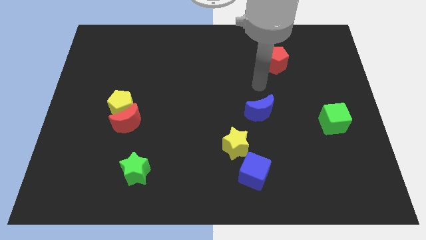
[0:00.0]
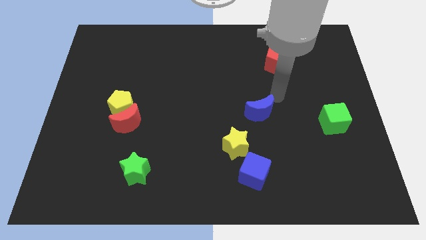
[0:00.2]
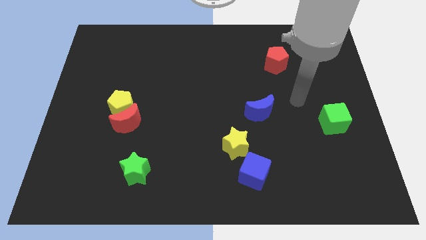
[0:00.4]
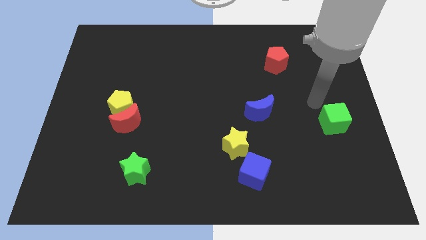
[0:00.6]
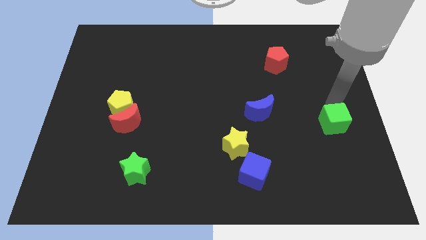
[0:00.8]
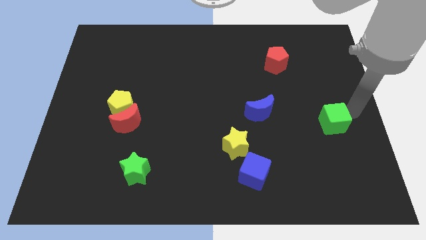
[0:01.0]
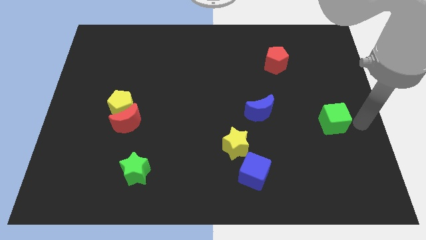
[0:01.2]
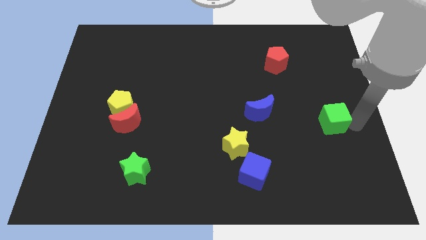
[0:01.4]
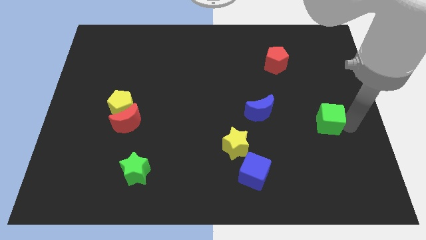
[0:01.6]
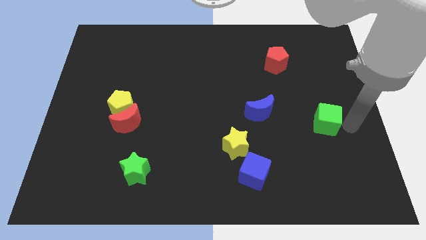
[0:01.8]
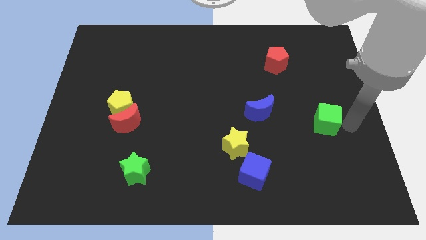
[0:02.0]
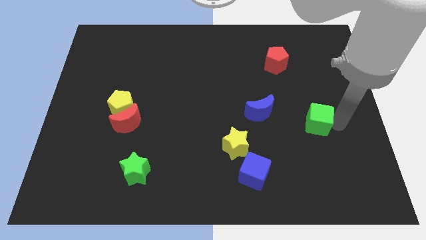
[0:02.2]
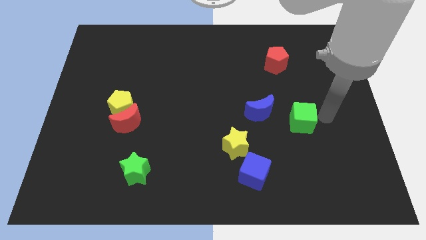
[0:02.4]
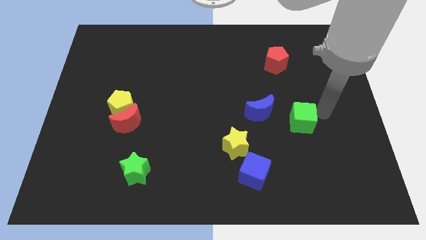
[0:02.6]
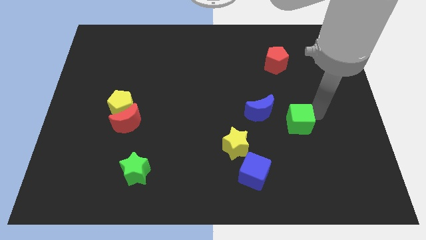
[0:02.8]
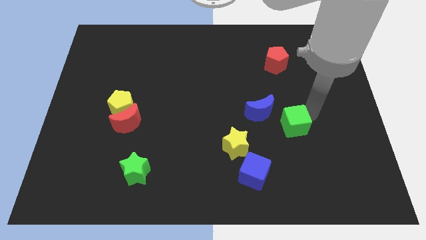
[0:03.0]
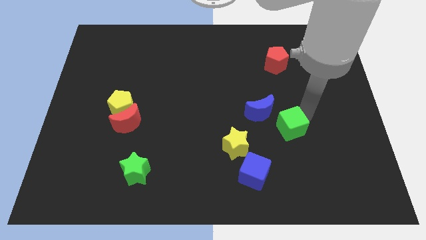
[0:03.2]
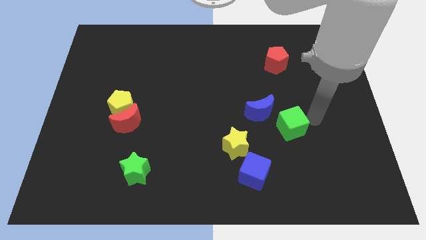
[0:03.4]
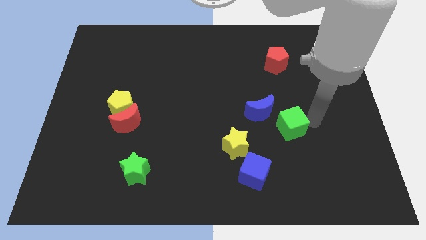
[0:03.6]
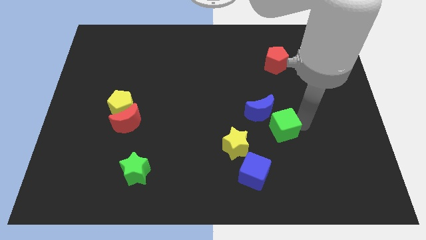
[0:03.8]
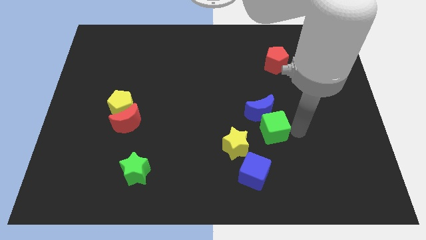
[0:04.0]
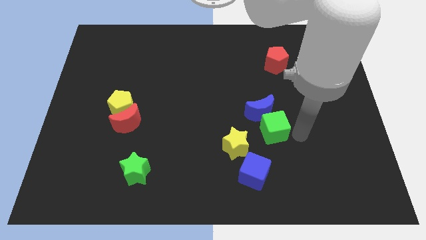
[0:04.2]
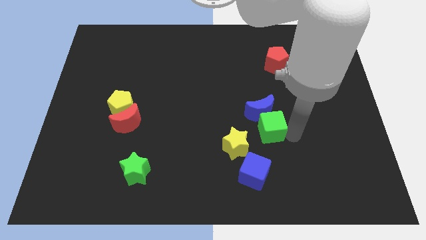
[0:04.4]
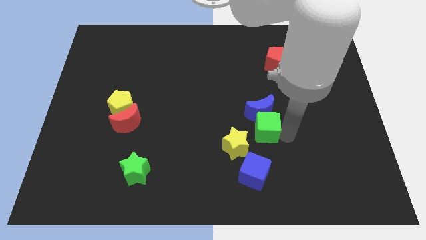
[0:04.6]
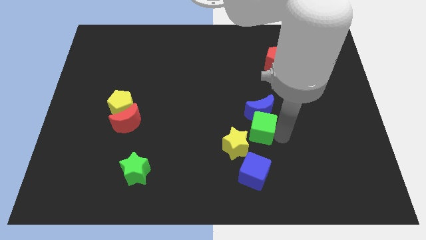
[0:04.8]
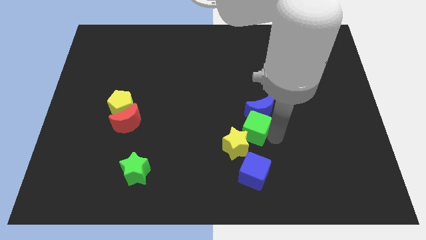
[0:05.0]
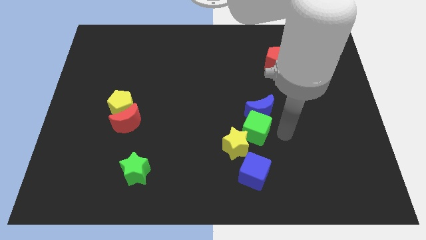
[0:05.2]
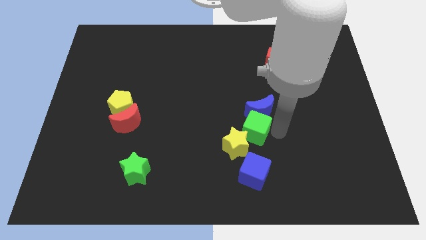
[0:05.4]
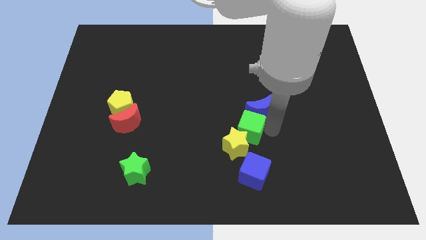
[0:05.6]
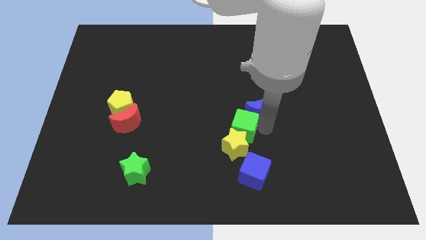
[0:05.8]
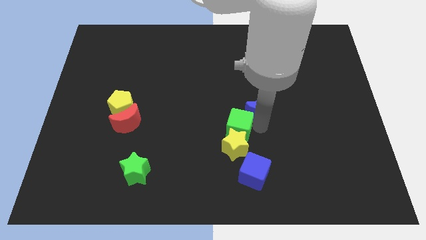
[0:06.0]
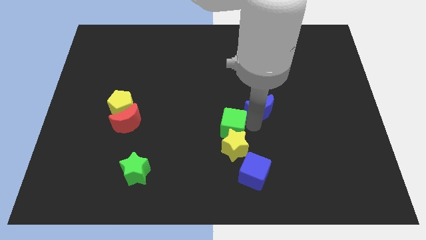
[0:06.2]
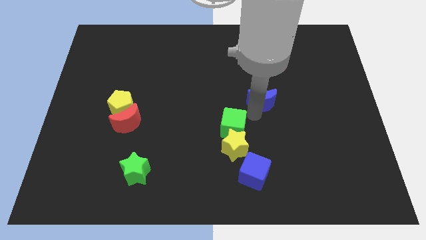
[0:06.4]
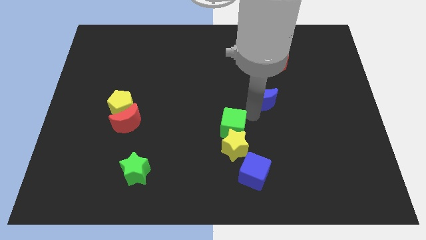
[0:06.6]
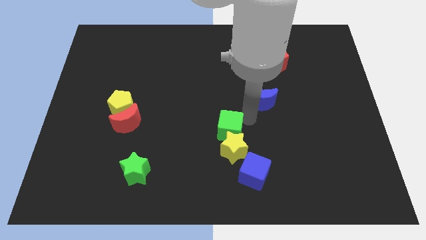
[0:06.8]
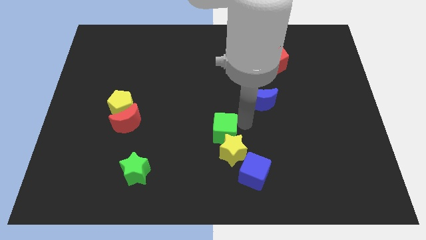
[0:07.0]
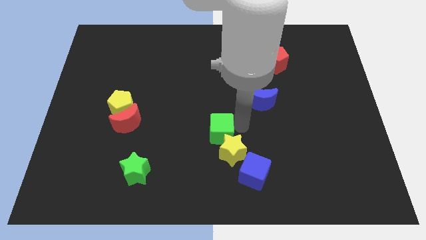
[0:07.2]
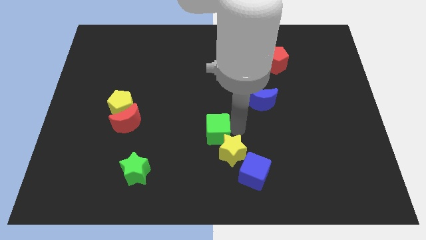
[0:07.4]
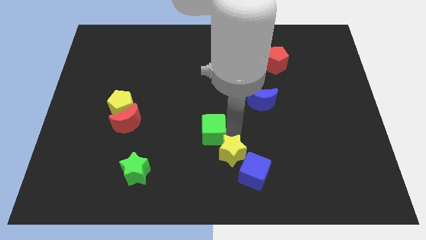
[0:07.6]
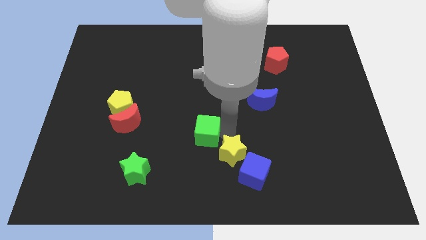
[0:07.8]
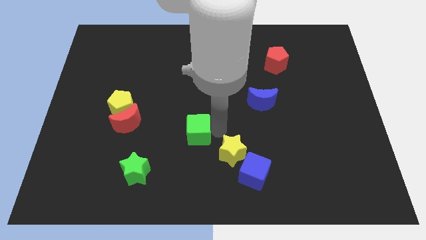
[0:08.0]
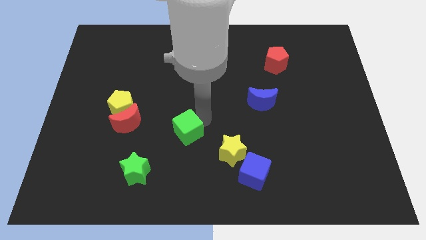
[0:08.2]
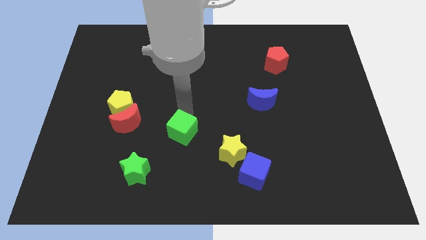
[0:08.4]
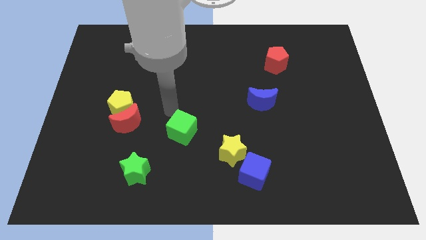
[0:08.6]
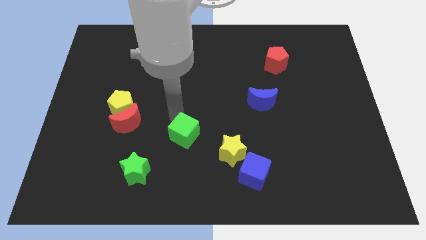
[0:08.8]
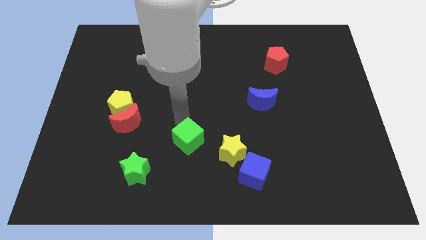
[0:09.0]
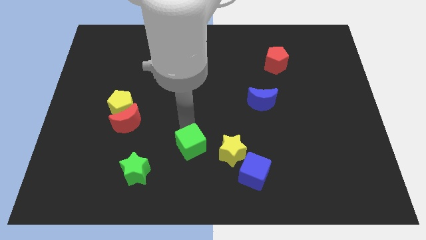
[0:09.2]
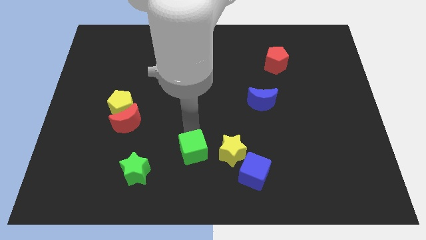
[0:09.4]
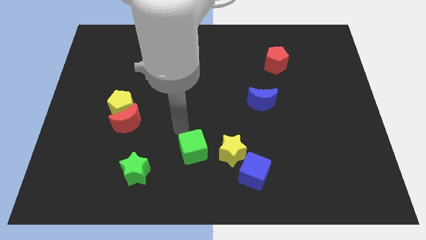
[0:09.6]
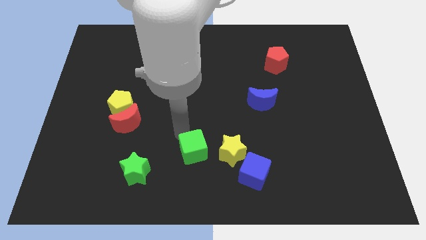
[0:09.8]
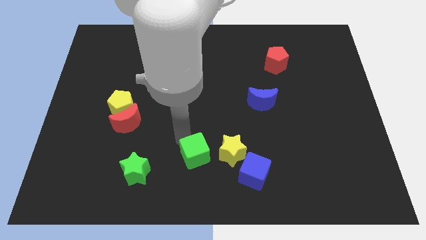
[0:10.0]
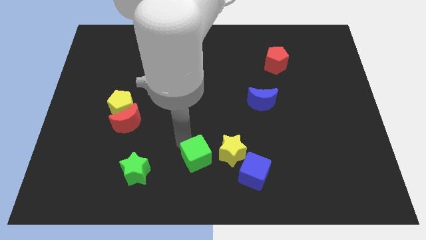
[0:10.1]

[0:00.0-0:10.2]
put the green cube to the bottom left of the yellow star

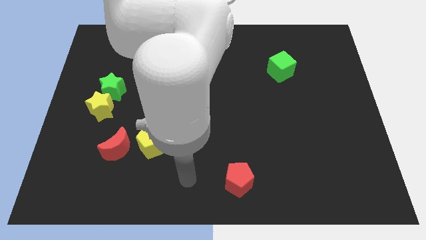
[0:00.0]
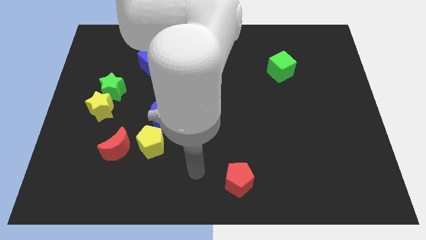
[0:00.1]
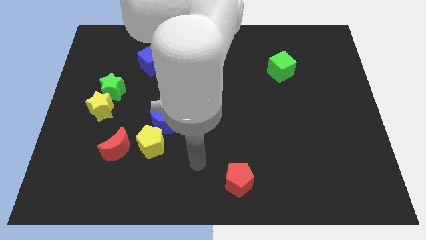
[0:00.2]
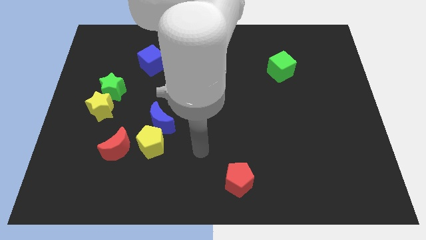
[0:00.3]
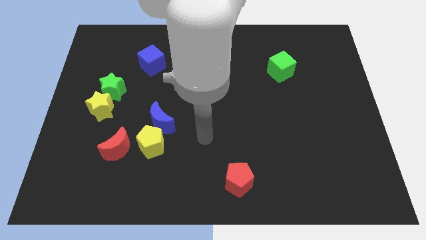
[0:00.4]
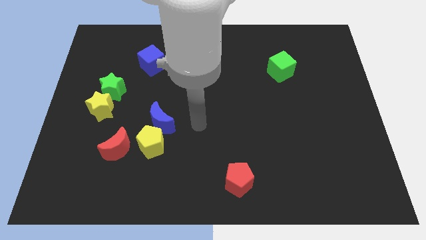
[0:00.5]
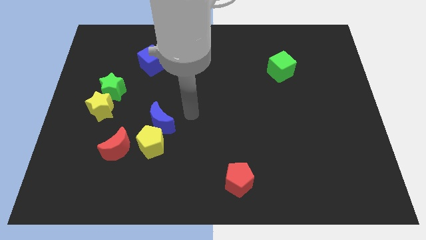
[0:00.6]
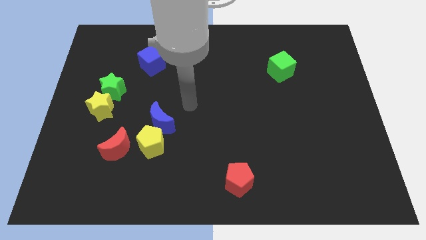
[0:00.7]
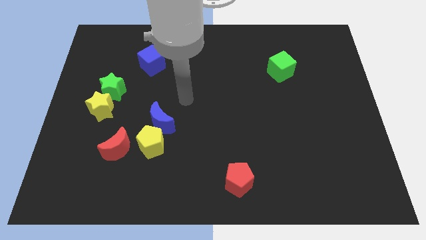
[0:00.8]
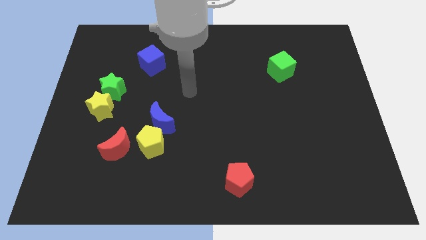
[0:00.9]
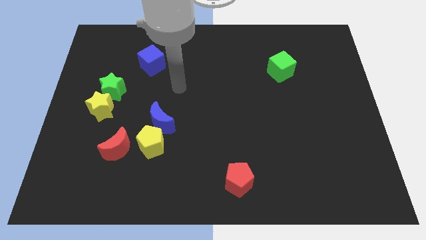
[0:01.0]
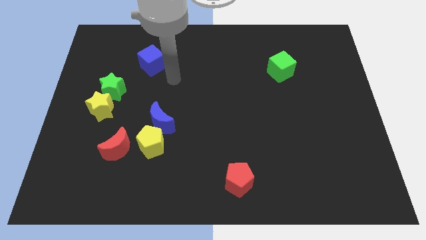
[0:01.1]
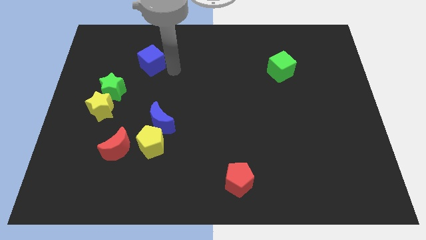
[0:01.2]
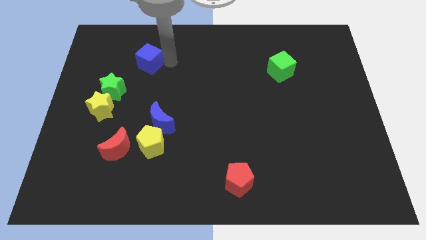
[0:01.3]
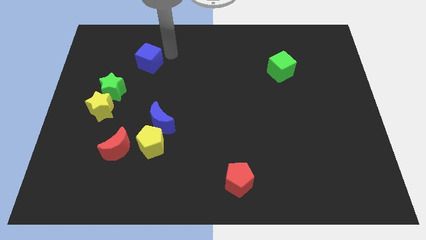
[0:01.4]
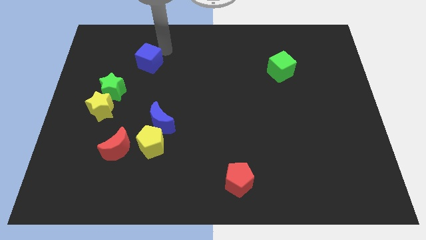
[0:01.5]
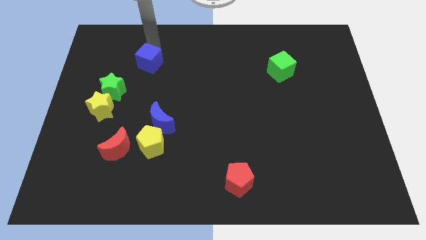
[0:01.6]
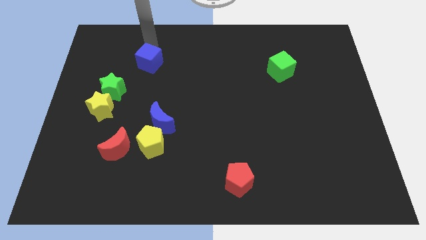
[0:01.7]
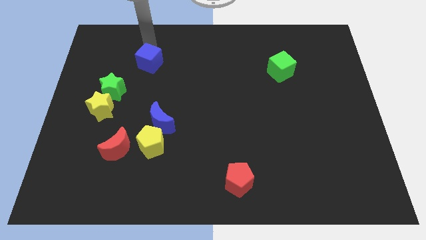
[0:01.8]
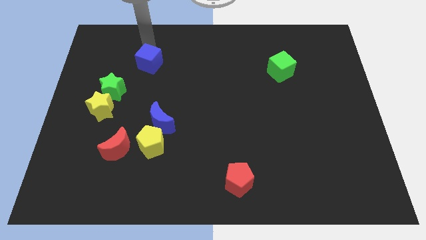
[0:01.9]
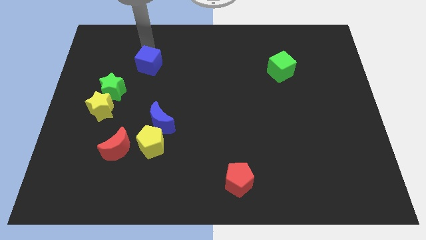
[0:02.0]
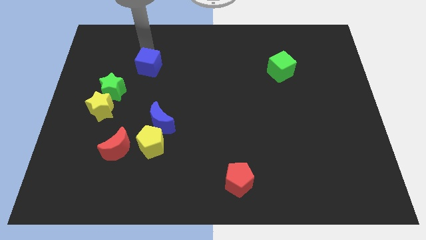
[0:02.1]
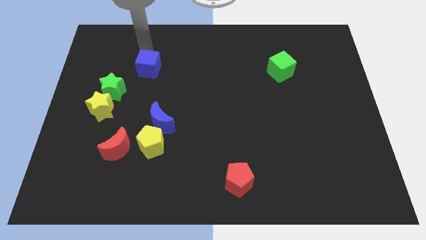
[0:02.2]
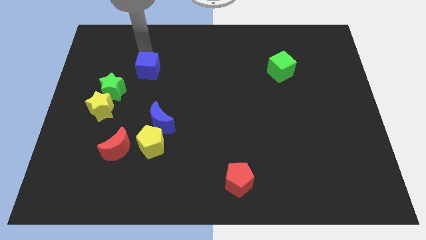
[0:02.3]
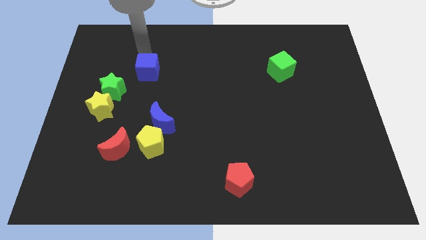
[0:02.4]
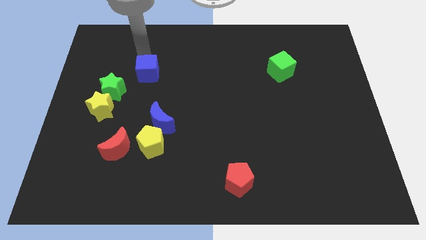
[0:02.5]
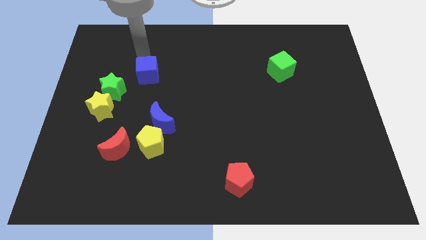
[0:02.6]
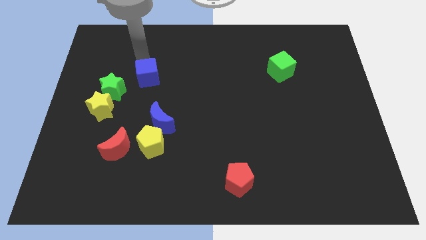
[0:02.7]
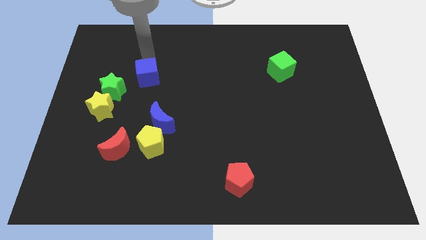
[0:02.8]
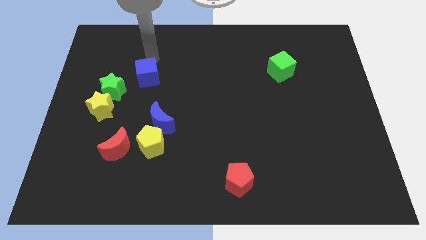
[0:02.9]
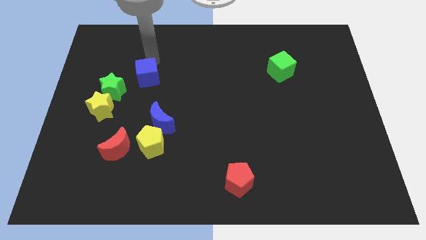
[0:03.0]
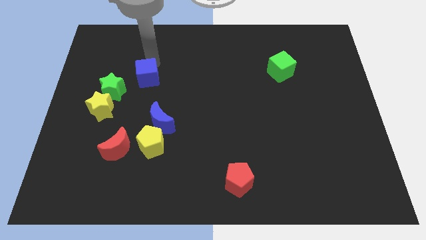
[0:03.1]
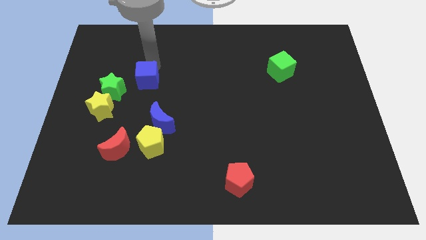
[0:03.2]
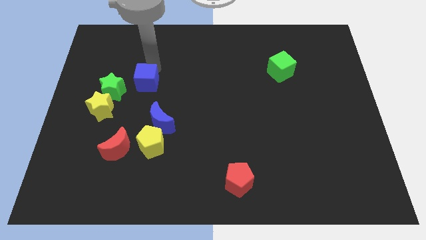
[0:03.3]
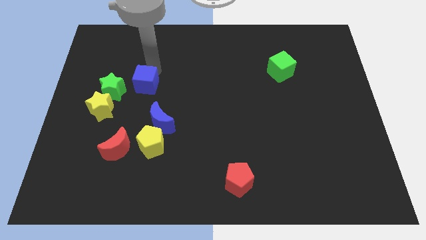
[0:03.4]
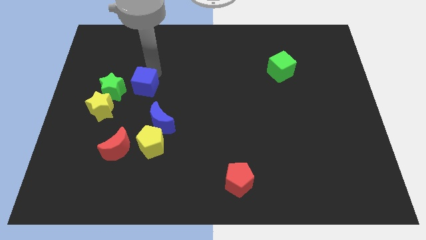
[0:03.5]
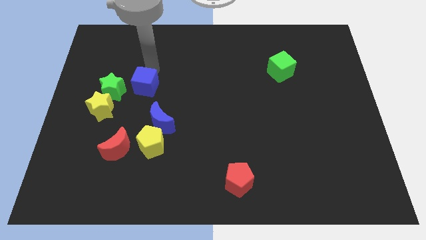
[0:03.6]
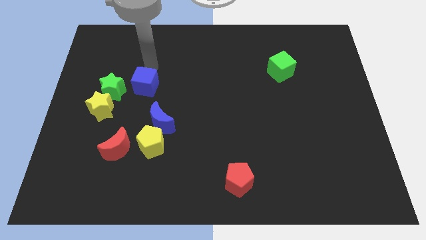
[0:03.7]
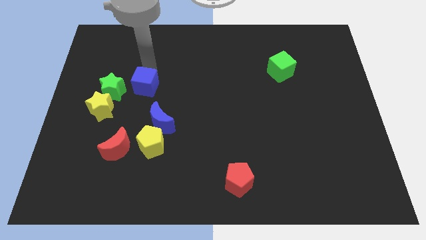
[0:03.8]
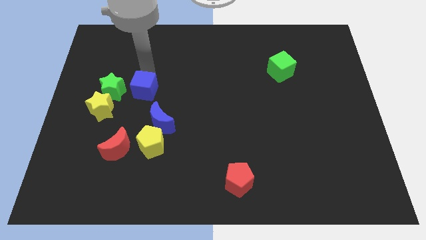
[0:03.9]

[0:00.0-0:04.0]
move the blue cube to the top left of the blue moon
